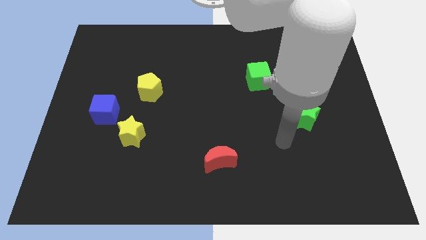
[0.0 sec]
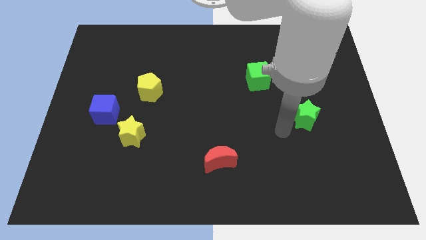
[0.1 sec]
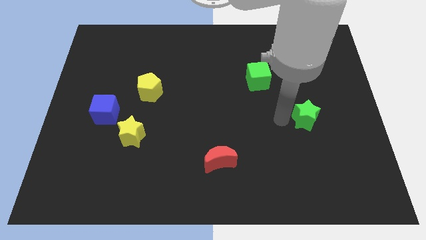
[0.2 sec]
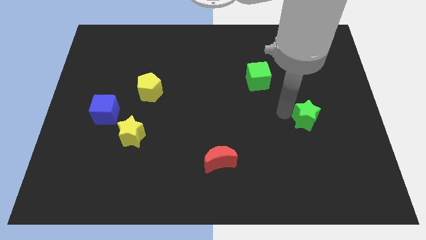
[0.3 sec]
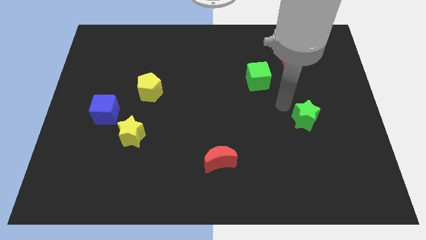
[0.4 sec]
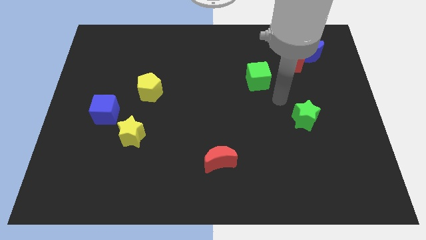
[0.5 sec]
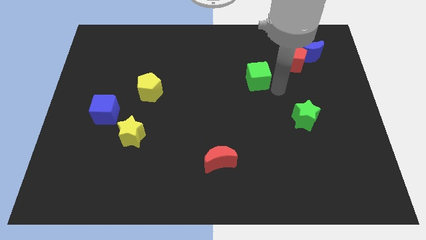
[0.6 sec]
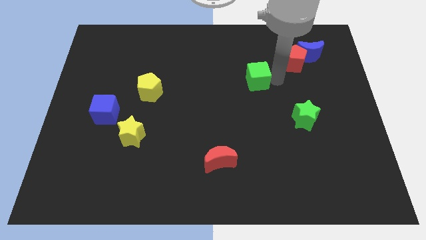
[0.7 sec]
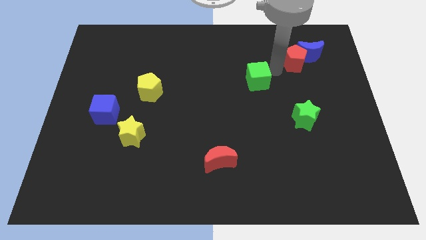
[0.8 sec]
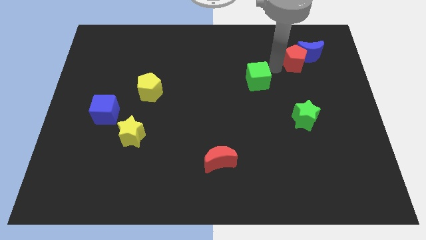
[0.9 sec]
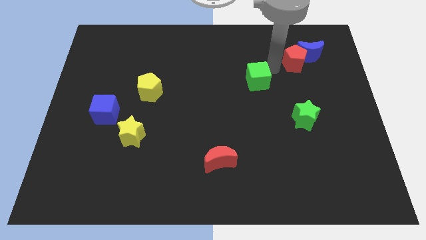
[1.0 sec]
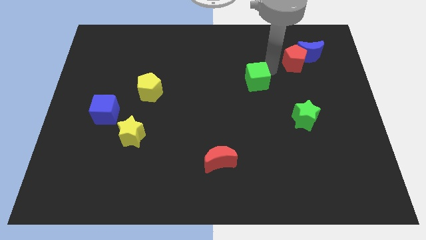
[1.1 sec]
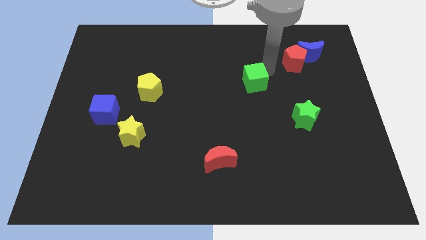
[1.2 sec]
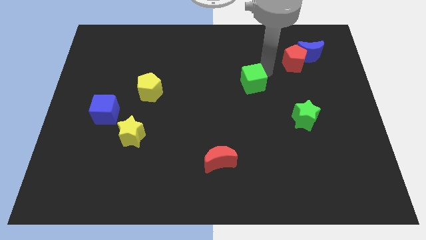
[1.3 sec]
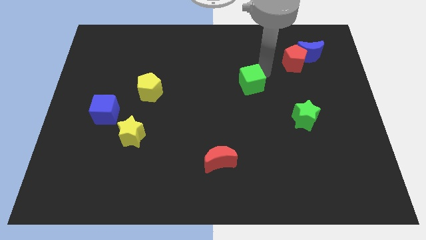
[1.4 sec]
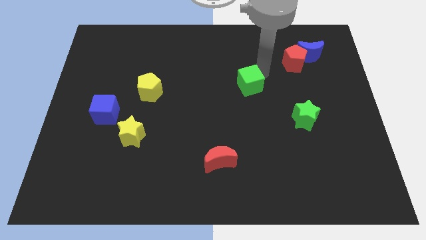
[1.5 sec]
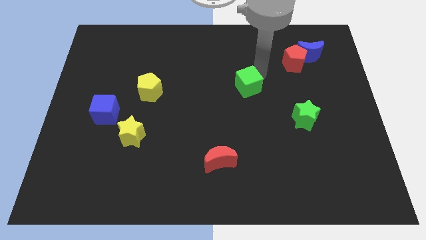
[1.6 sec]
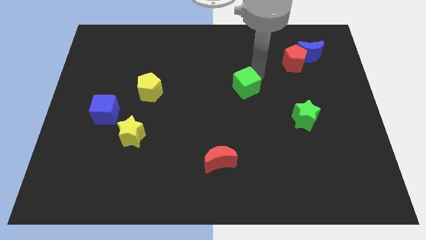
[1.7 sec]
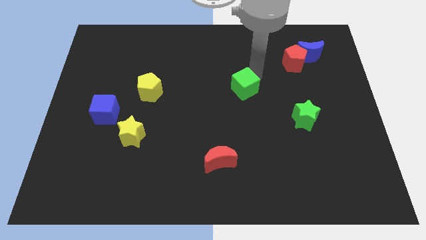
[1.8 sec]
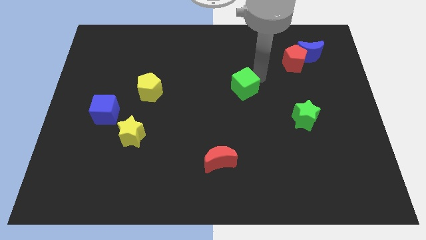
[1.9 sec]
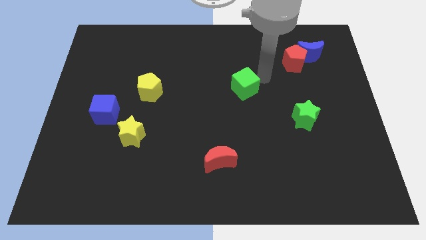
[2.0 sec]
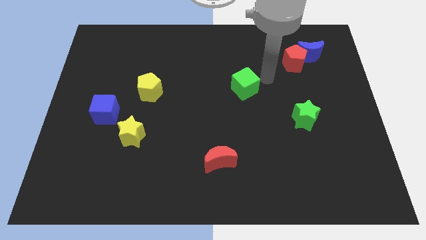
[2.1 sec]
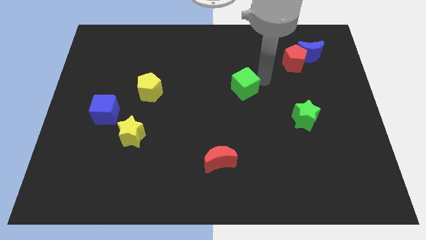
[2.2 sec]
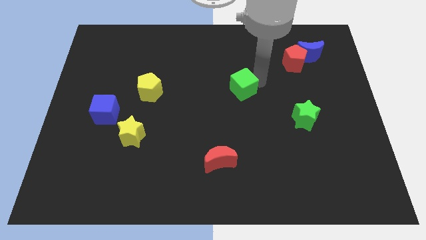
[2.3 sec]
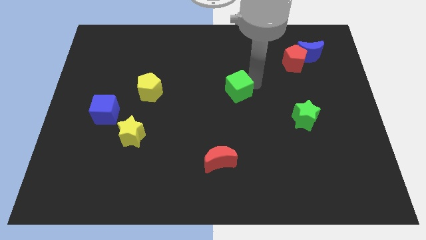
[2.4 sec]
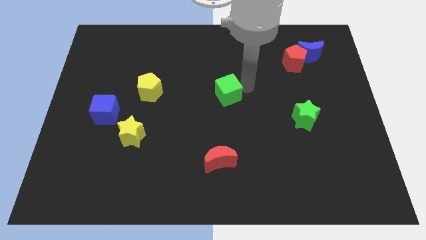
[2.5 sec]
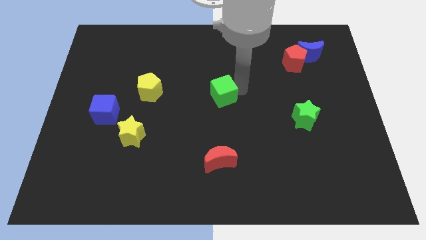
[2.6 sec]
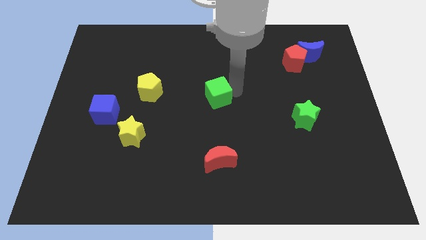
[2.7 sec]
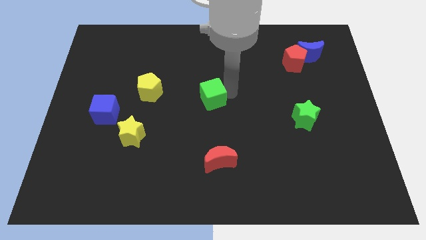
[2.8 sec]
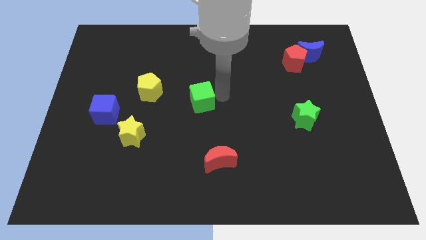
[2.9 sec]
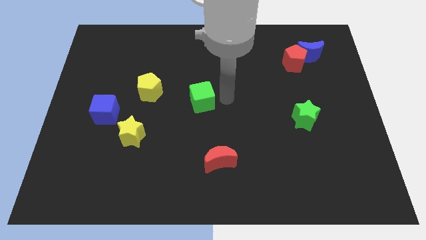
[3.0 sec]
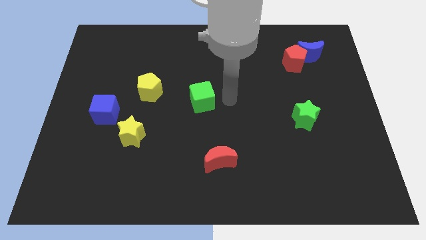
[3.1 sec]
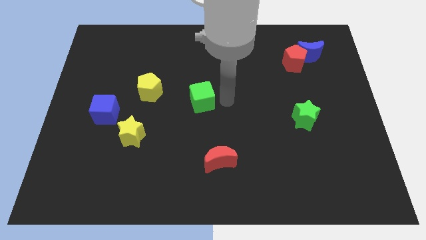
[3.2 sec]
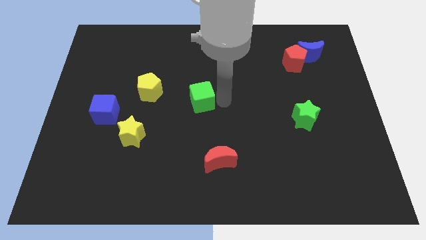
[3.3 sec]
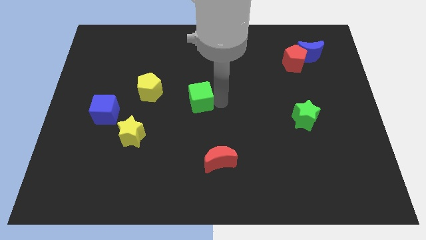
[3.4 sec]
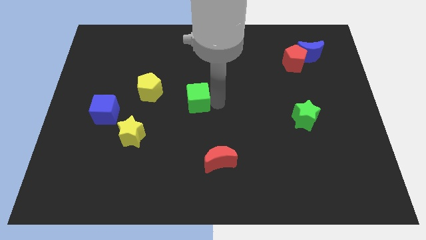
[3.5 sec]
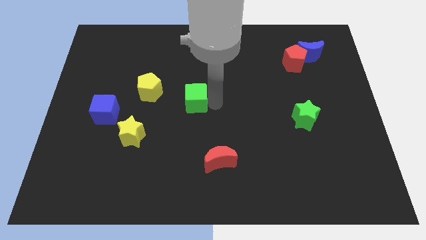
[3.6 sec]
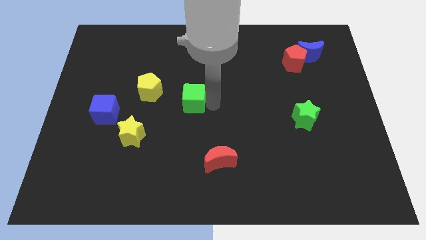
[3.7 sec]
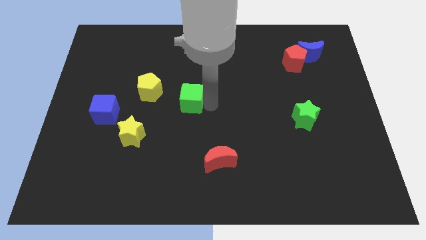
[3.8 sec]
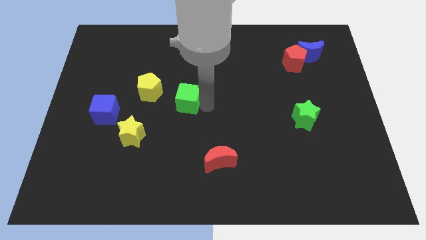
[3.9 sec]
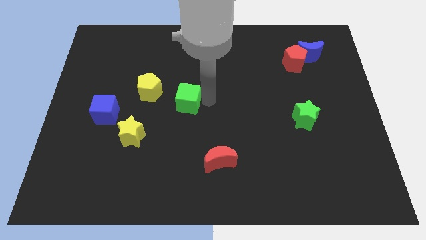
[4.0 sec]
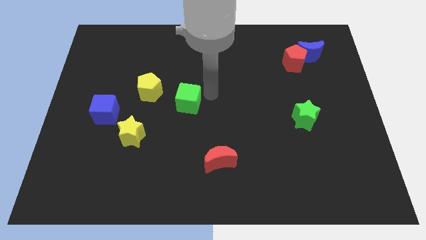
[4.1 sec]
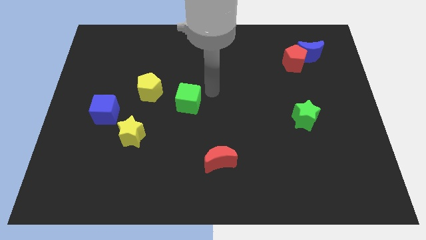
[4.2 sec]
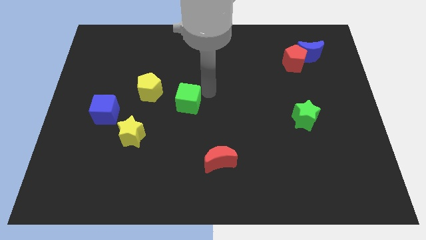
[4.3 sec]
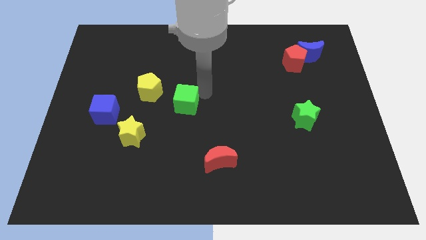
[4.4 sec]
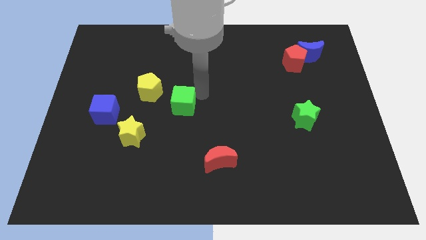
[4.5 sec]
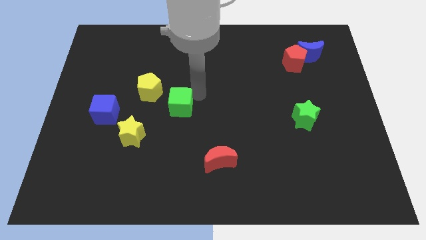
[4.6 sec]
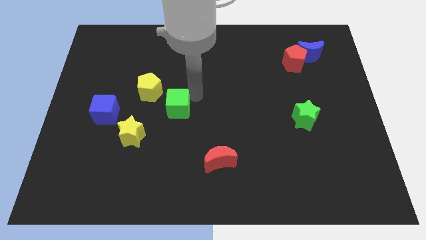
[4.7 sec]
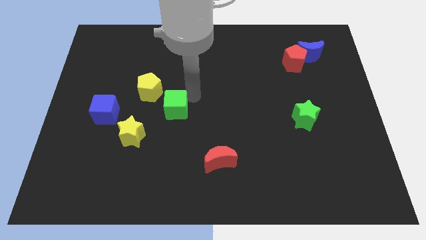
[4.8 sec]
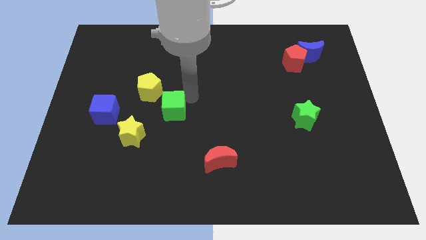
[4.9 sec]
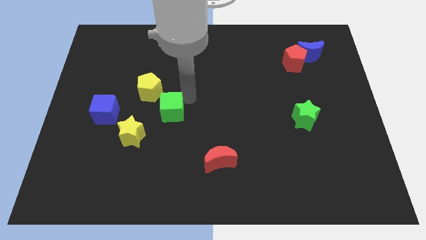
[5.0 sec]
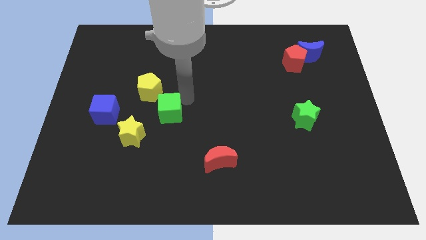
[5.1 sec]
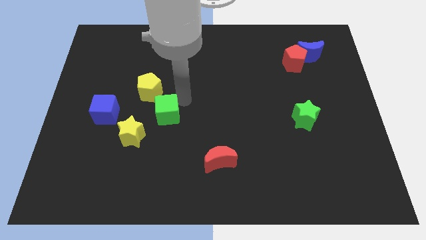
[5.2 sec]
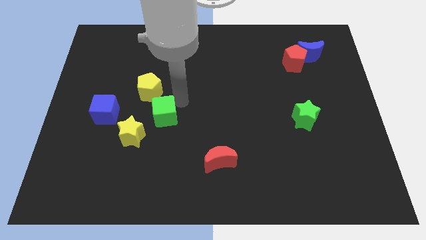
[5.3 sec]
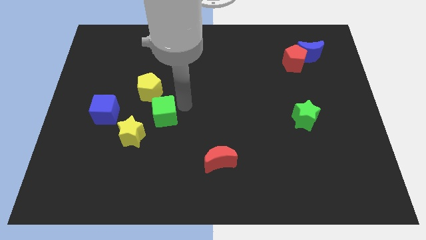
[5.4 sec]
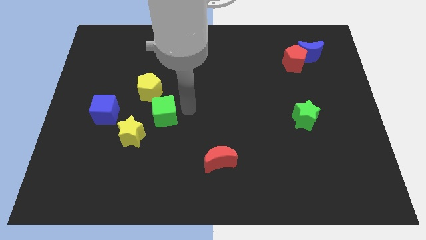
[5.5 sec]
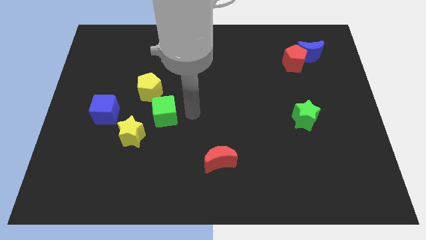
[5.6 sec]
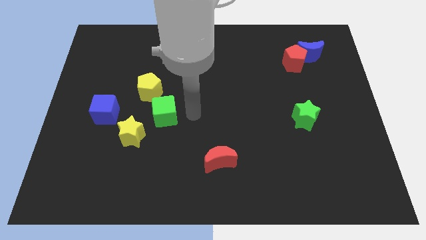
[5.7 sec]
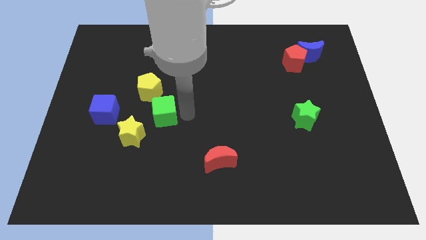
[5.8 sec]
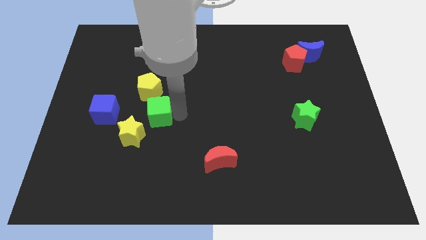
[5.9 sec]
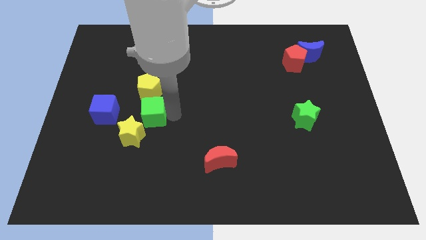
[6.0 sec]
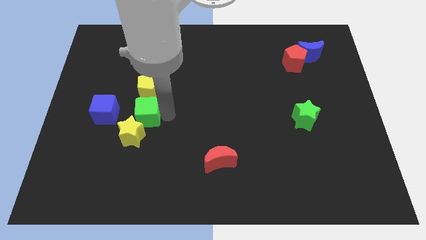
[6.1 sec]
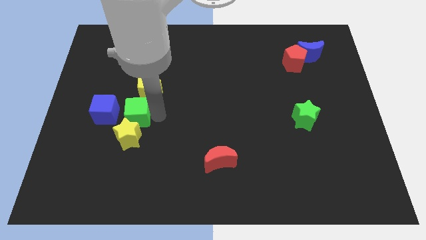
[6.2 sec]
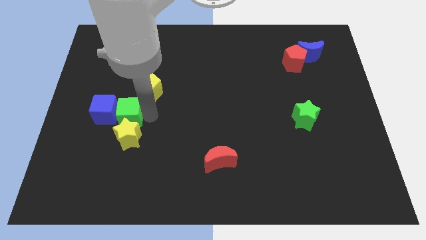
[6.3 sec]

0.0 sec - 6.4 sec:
push the green cube towards the blue cube

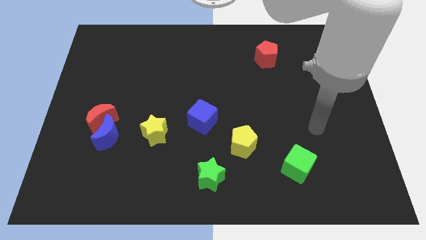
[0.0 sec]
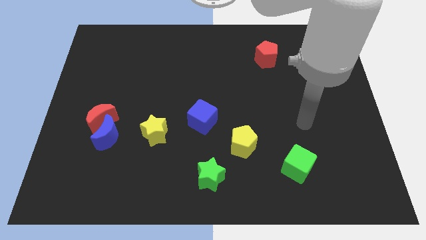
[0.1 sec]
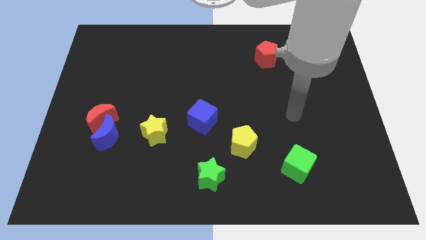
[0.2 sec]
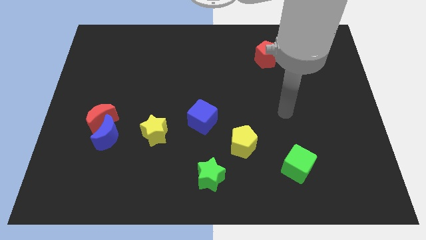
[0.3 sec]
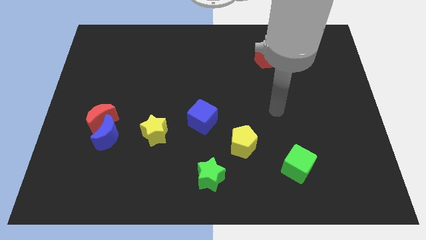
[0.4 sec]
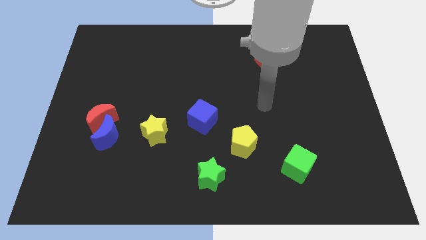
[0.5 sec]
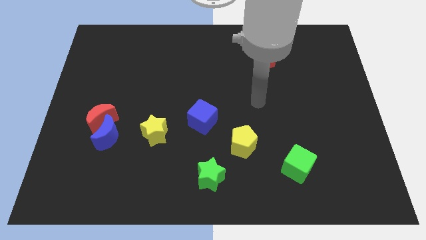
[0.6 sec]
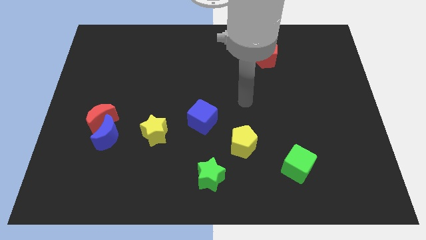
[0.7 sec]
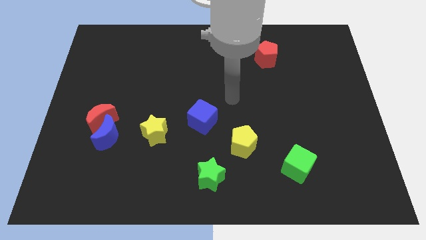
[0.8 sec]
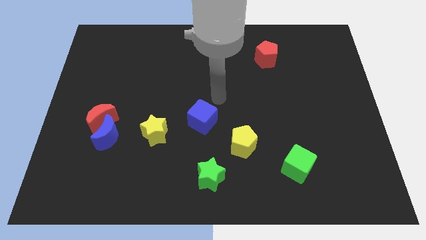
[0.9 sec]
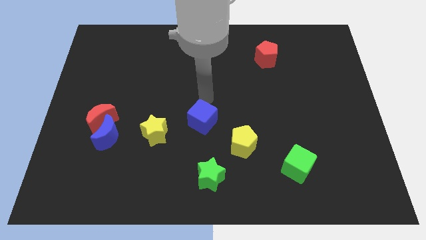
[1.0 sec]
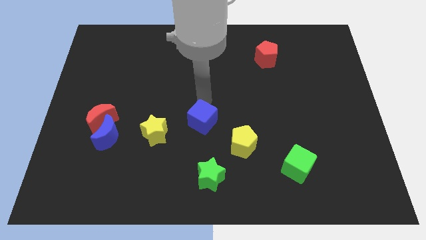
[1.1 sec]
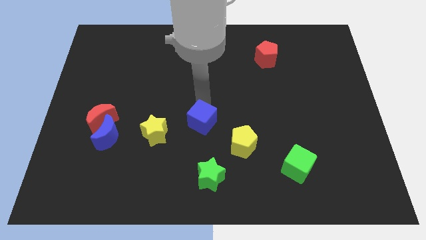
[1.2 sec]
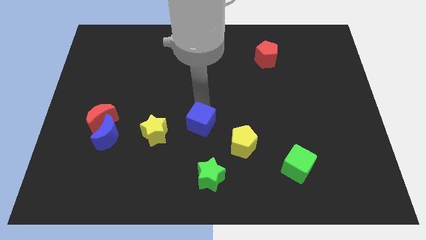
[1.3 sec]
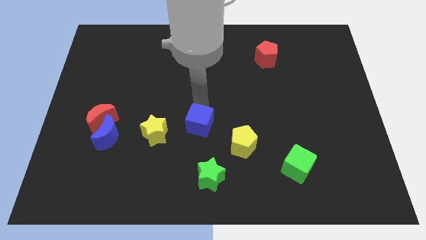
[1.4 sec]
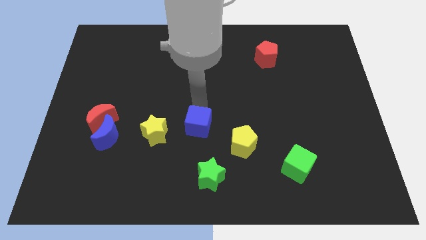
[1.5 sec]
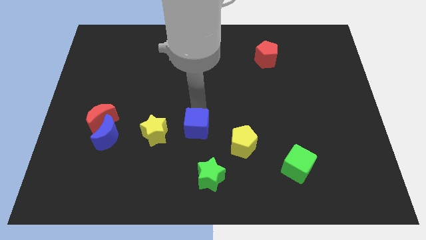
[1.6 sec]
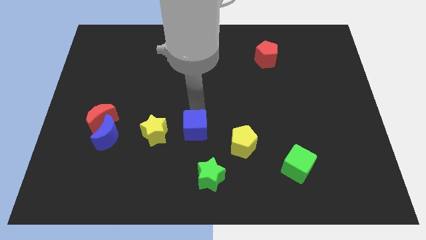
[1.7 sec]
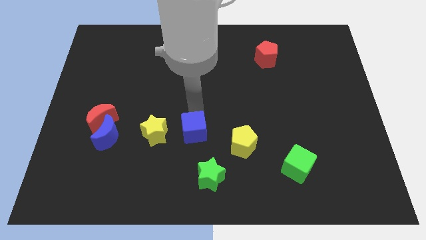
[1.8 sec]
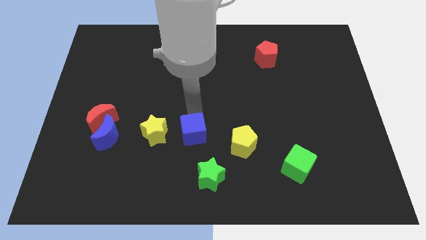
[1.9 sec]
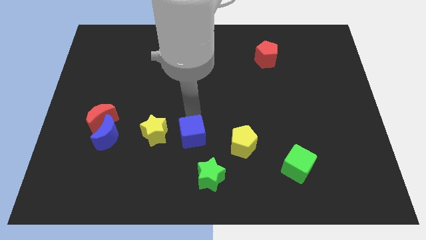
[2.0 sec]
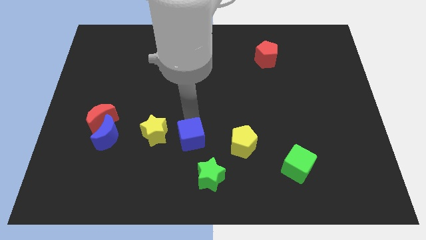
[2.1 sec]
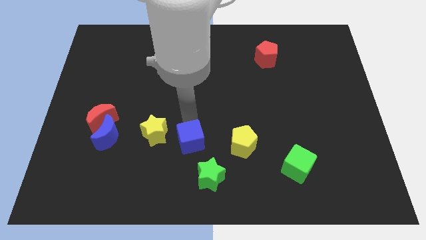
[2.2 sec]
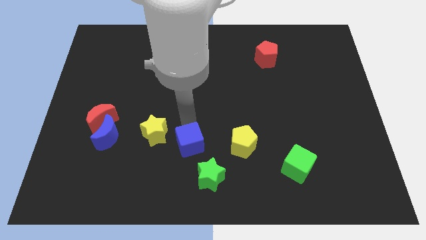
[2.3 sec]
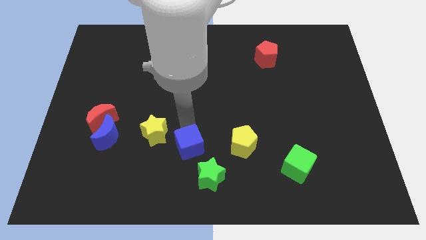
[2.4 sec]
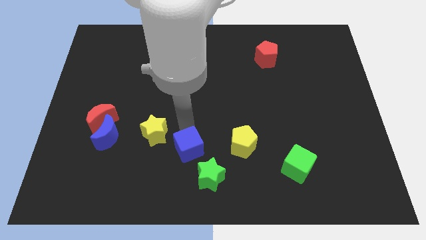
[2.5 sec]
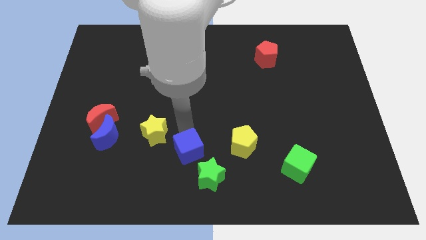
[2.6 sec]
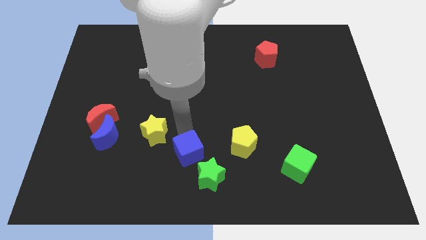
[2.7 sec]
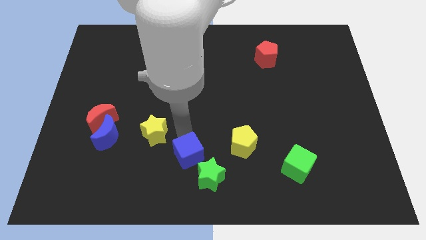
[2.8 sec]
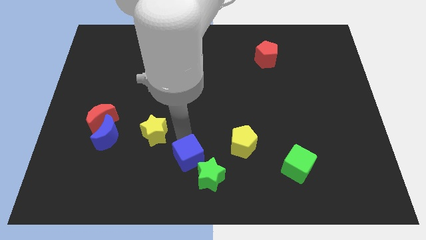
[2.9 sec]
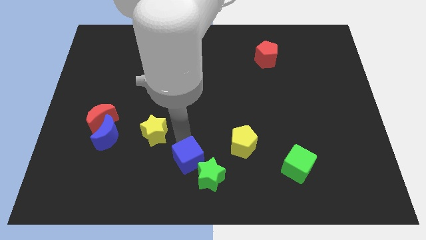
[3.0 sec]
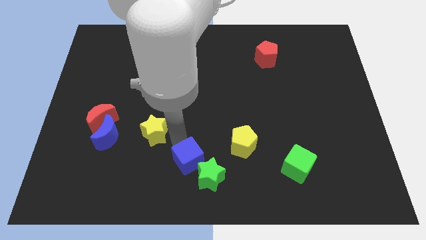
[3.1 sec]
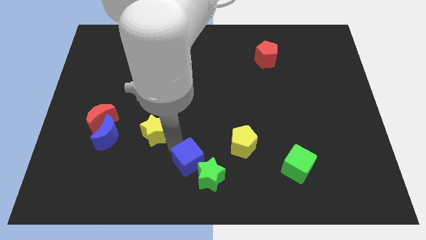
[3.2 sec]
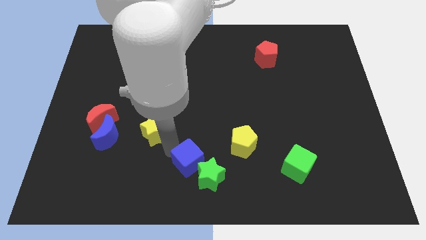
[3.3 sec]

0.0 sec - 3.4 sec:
slide the blue cube towards the green star
